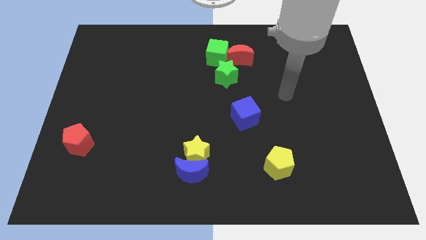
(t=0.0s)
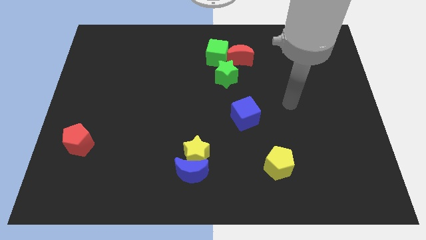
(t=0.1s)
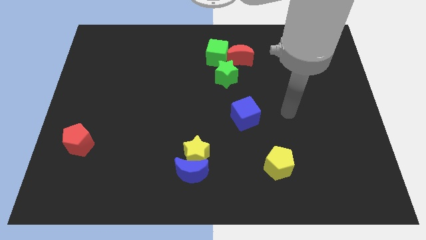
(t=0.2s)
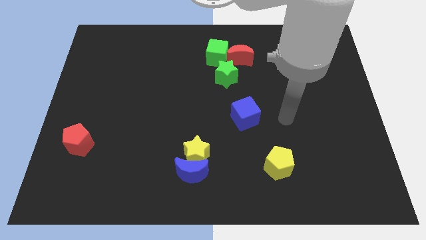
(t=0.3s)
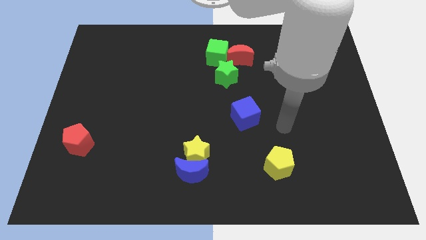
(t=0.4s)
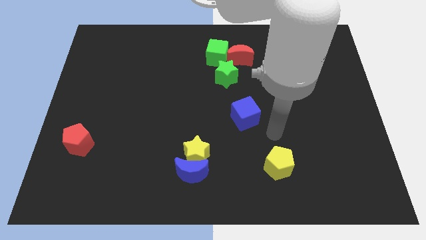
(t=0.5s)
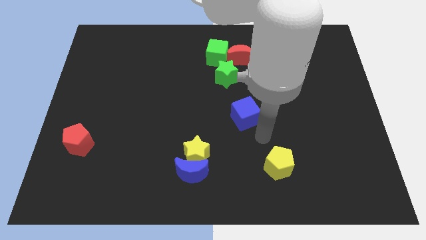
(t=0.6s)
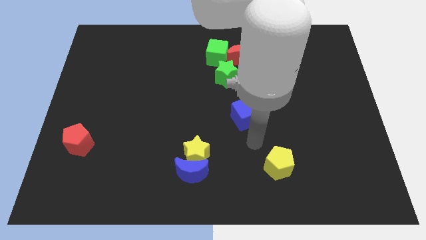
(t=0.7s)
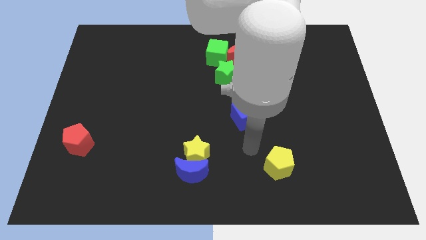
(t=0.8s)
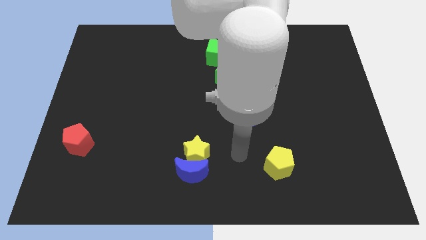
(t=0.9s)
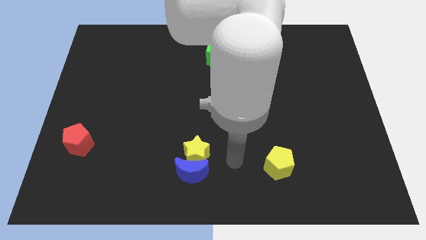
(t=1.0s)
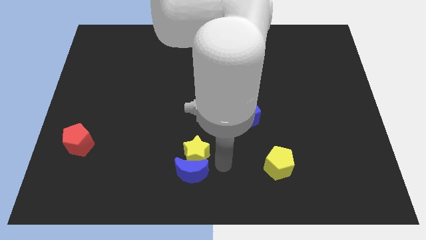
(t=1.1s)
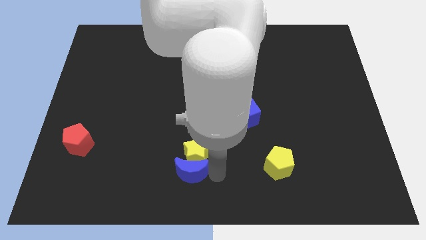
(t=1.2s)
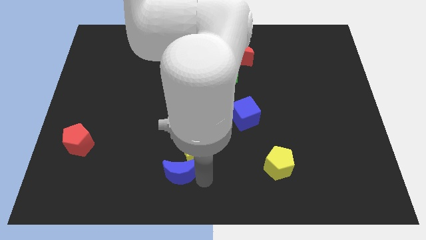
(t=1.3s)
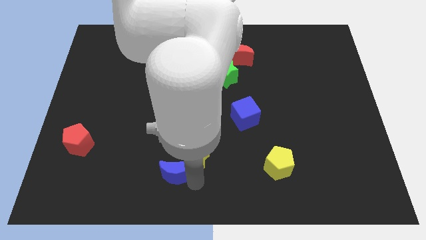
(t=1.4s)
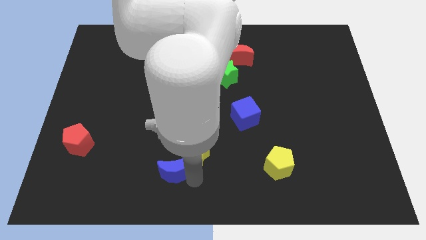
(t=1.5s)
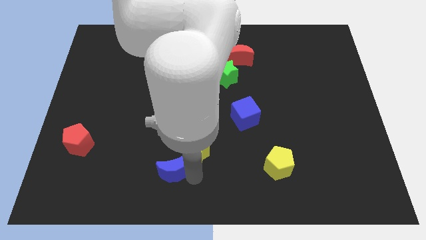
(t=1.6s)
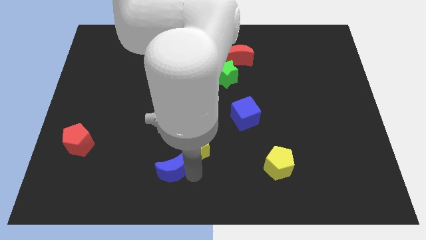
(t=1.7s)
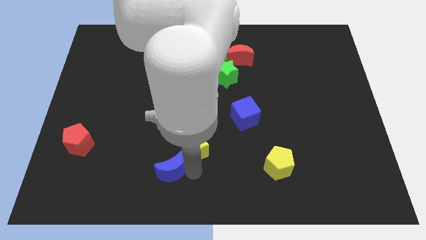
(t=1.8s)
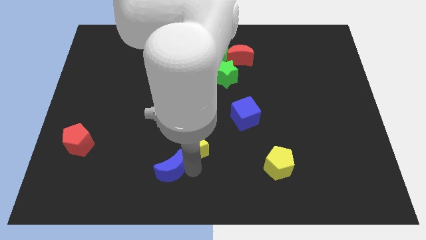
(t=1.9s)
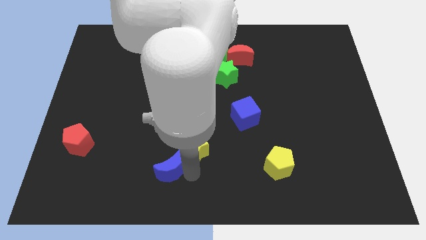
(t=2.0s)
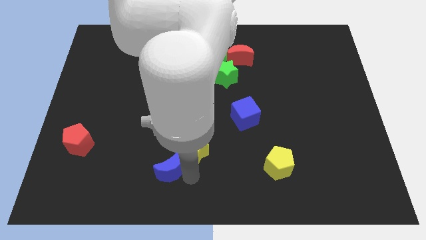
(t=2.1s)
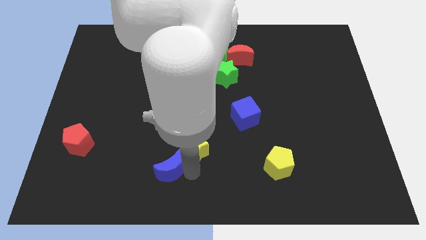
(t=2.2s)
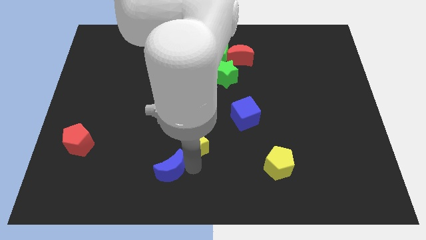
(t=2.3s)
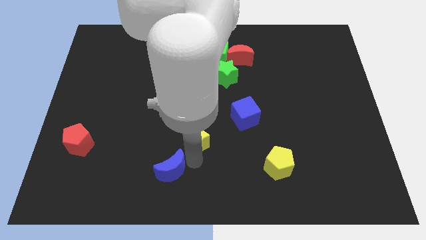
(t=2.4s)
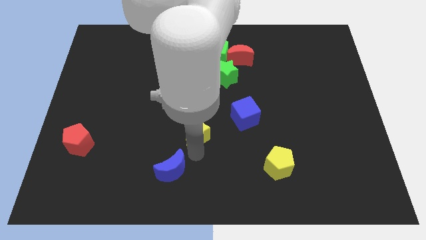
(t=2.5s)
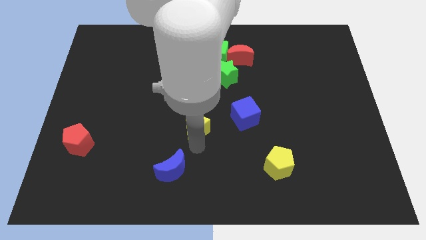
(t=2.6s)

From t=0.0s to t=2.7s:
slightly move the yellow star up

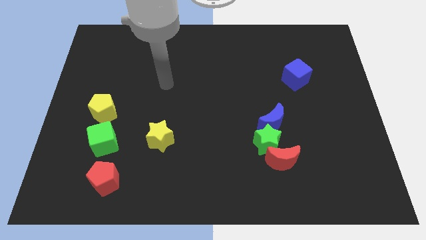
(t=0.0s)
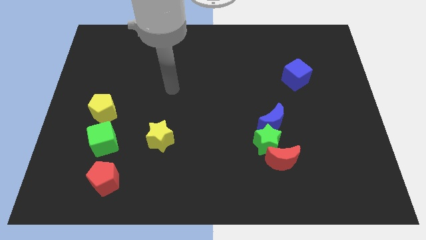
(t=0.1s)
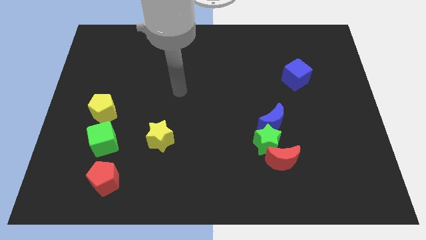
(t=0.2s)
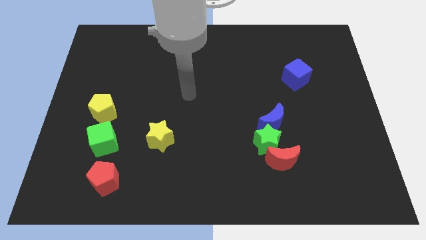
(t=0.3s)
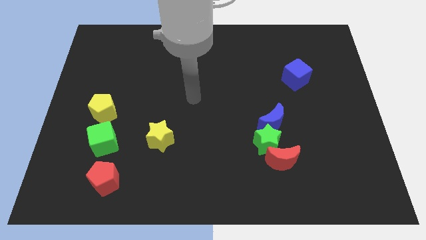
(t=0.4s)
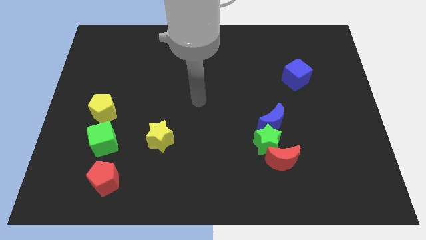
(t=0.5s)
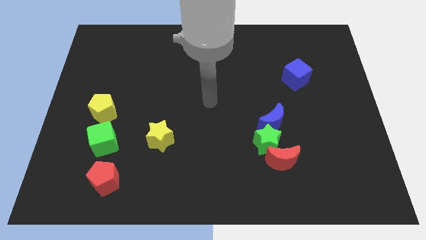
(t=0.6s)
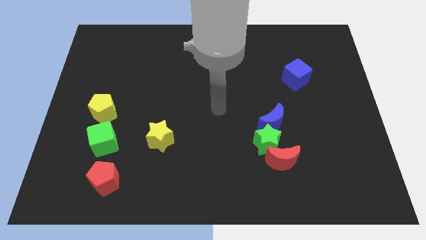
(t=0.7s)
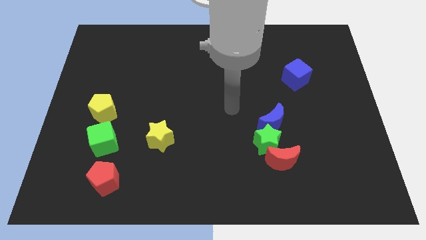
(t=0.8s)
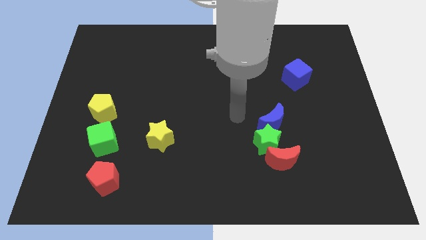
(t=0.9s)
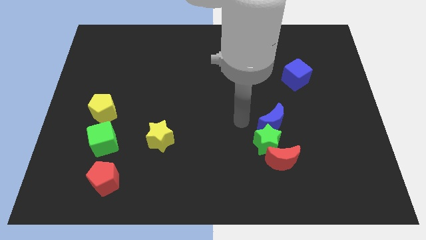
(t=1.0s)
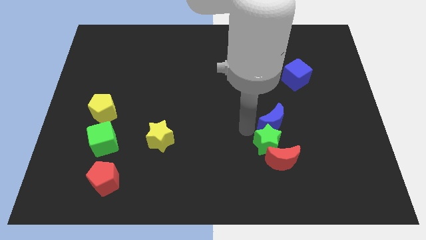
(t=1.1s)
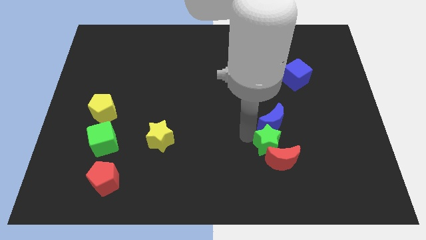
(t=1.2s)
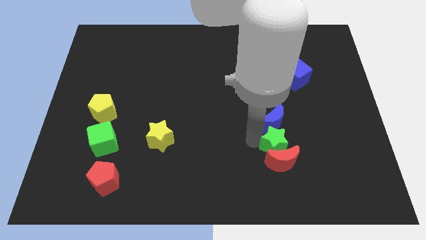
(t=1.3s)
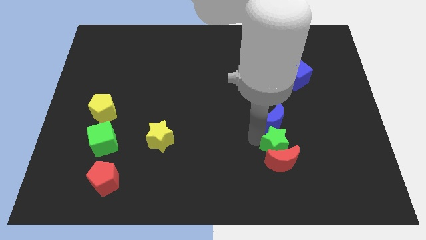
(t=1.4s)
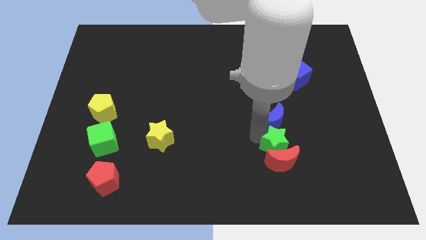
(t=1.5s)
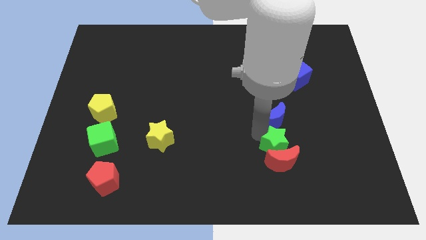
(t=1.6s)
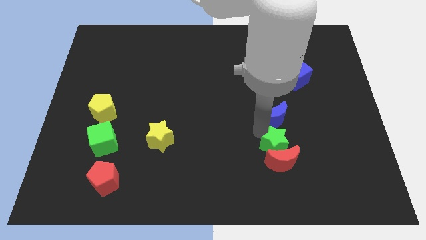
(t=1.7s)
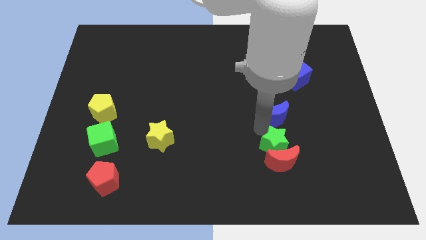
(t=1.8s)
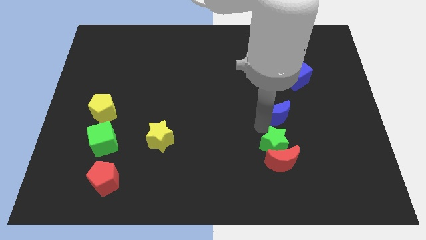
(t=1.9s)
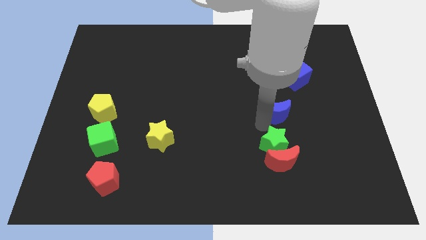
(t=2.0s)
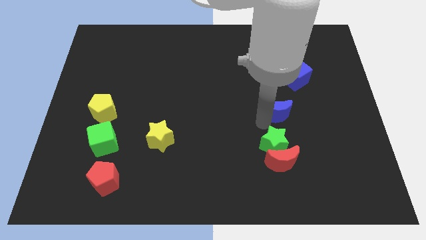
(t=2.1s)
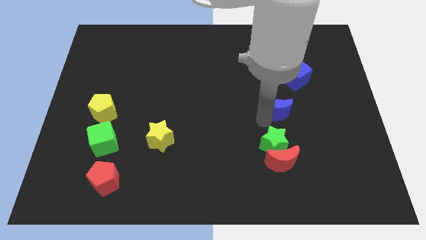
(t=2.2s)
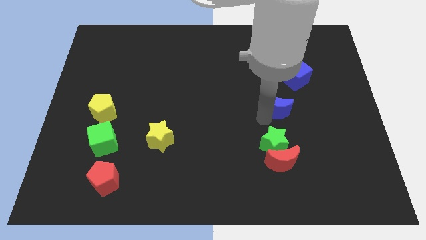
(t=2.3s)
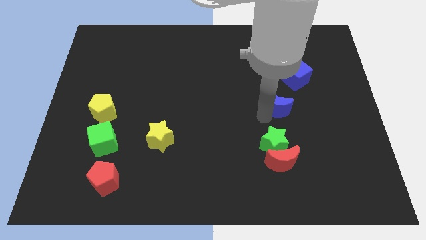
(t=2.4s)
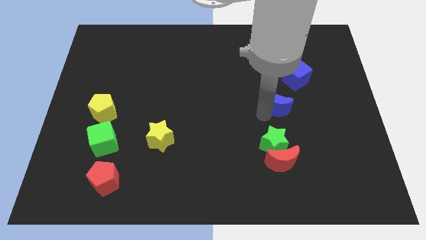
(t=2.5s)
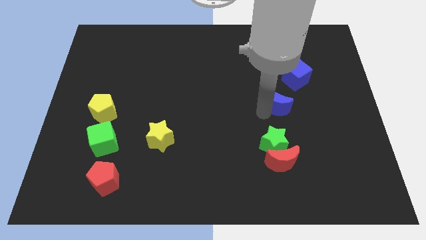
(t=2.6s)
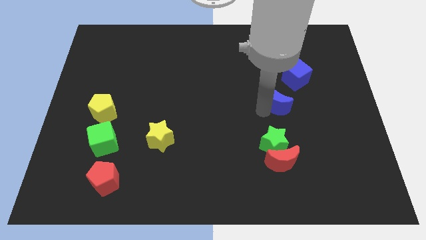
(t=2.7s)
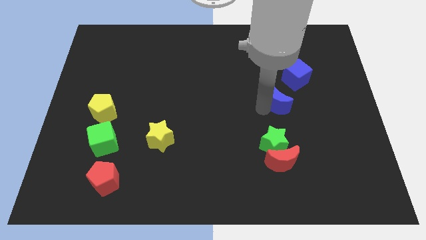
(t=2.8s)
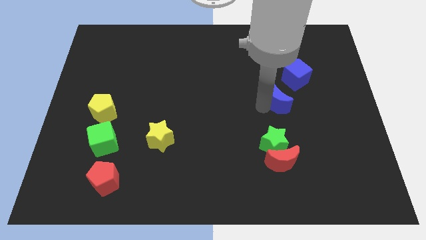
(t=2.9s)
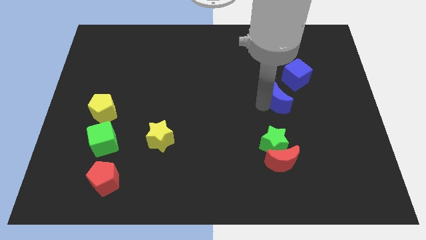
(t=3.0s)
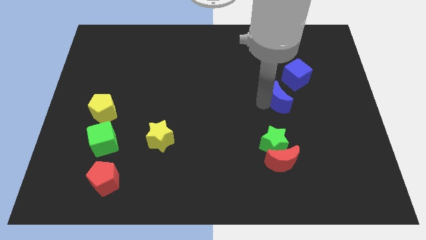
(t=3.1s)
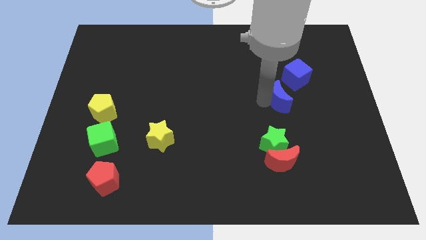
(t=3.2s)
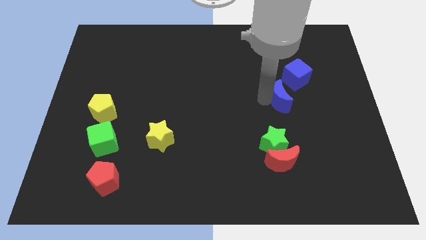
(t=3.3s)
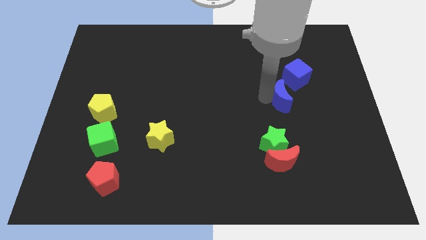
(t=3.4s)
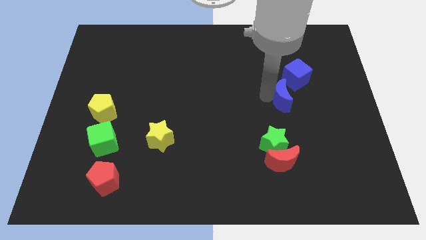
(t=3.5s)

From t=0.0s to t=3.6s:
slide the blue moon up and right diagonally a bit

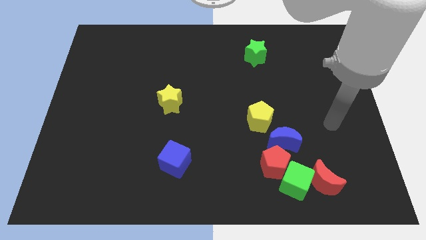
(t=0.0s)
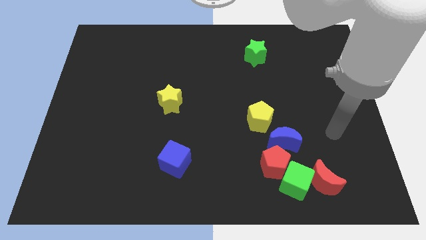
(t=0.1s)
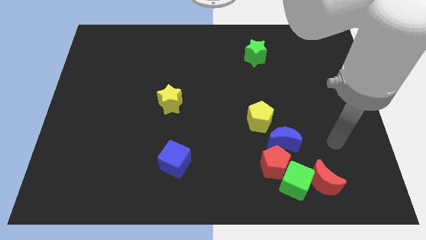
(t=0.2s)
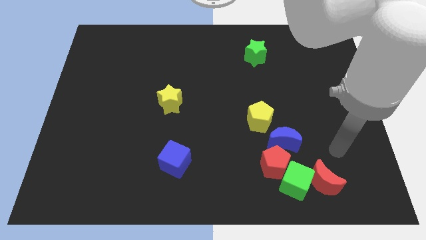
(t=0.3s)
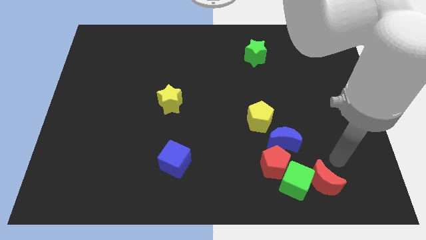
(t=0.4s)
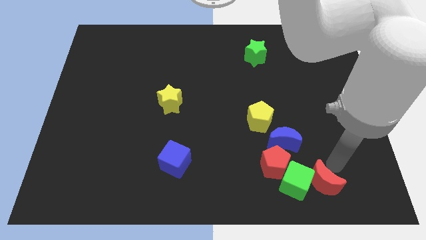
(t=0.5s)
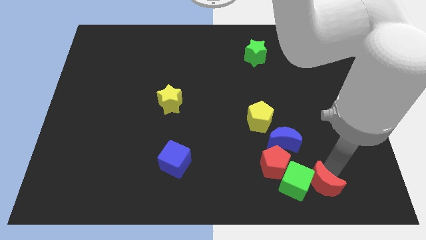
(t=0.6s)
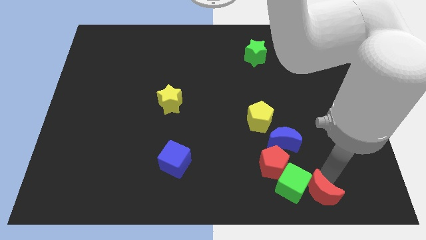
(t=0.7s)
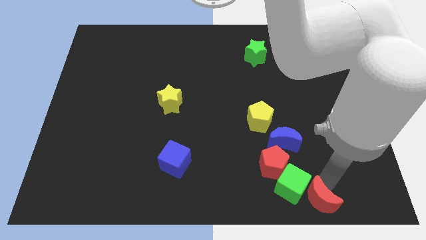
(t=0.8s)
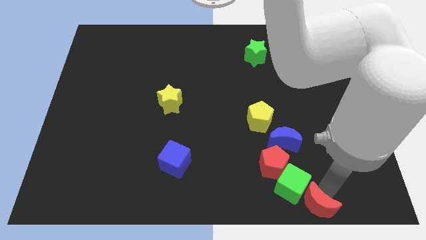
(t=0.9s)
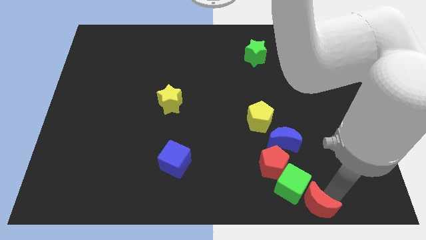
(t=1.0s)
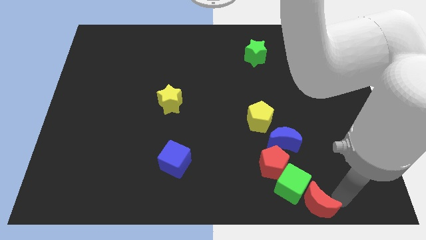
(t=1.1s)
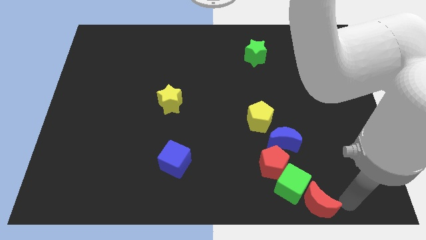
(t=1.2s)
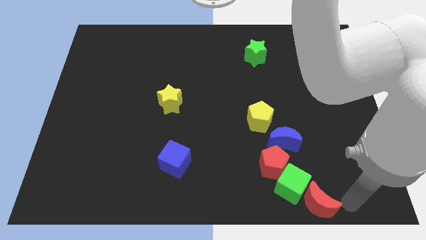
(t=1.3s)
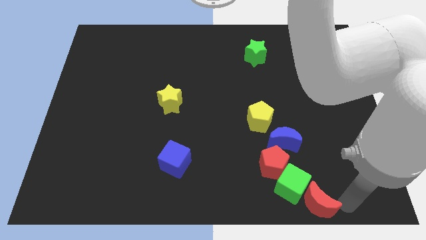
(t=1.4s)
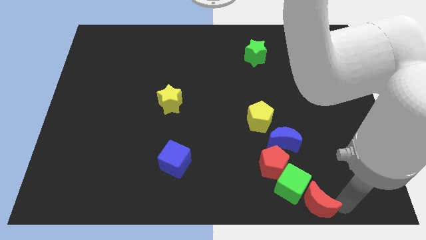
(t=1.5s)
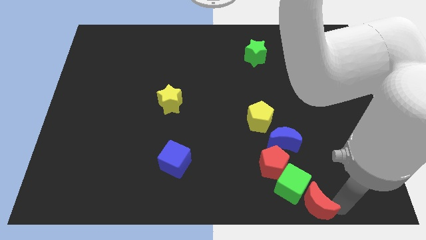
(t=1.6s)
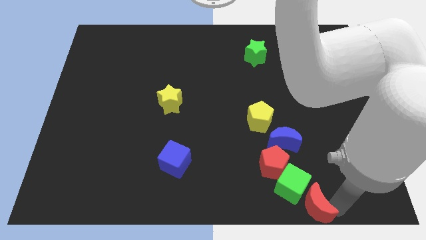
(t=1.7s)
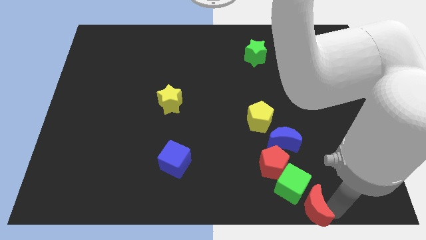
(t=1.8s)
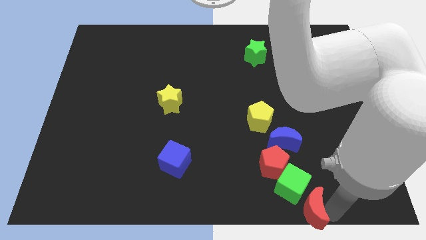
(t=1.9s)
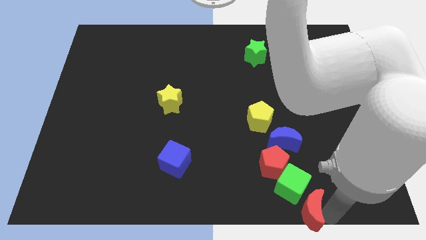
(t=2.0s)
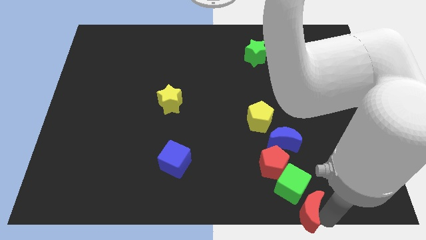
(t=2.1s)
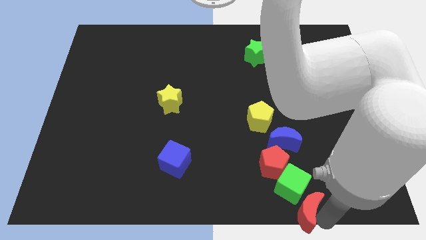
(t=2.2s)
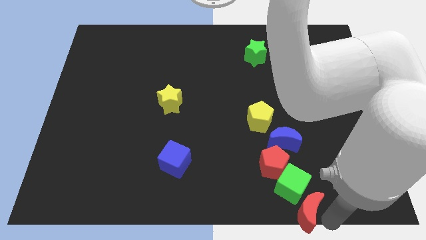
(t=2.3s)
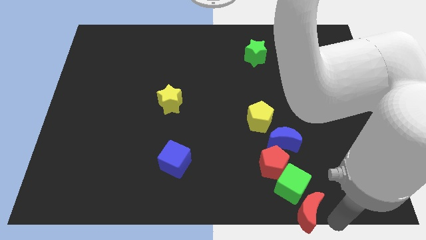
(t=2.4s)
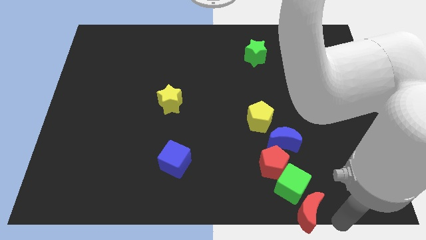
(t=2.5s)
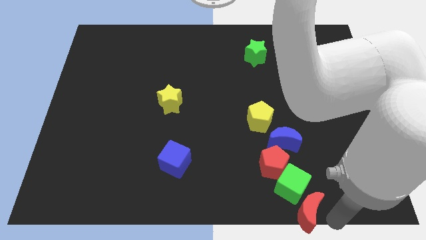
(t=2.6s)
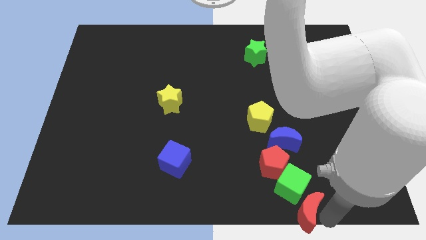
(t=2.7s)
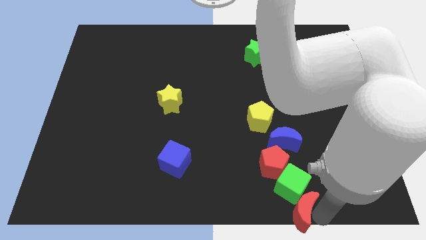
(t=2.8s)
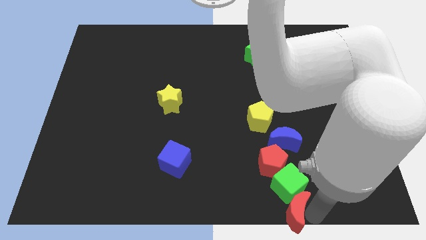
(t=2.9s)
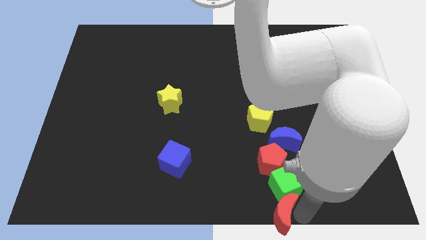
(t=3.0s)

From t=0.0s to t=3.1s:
push the red moon a little bit to the left
